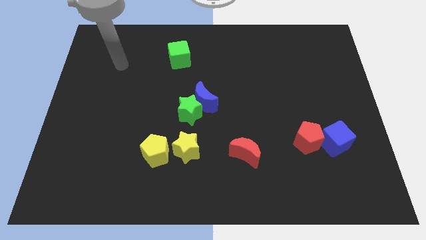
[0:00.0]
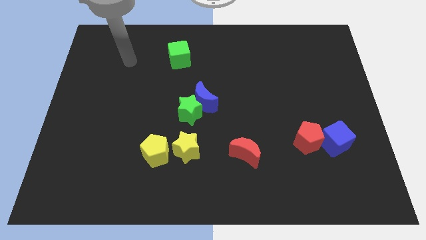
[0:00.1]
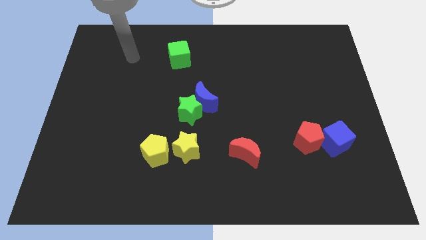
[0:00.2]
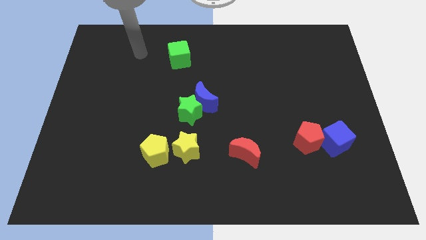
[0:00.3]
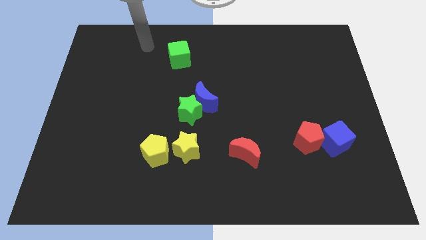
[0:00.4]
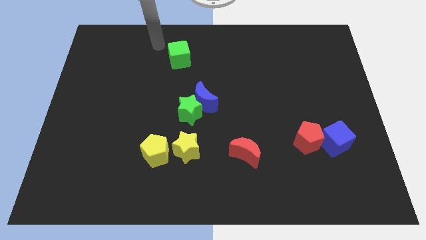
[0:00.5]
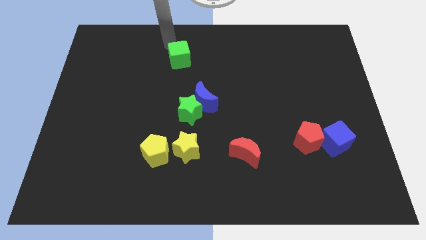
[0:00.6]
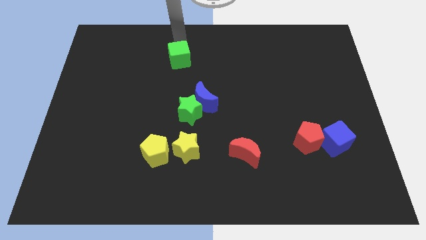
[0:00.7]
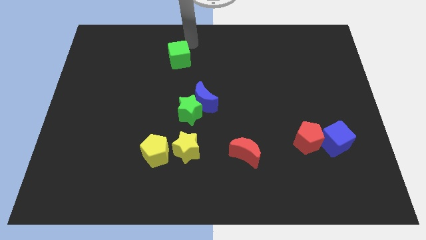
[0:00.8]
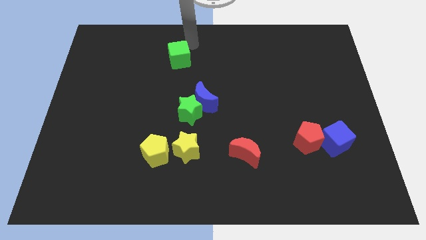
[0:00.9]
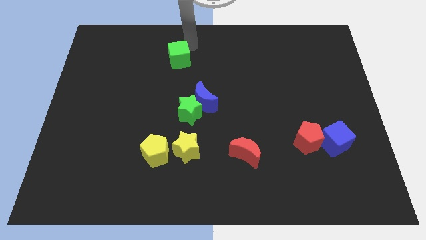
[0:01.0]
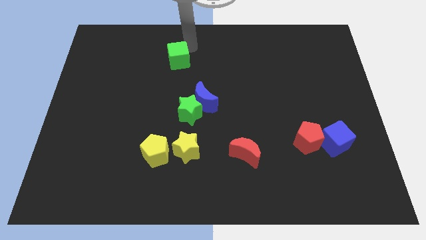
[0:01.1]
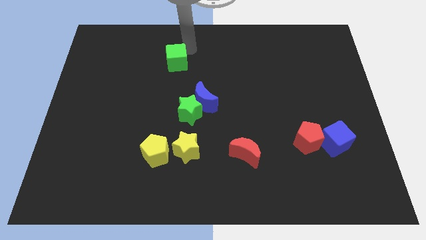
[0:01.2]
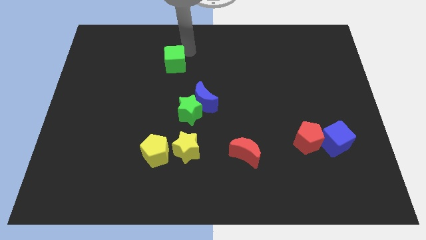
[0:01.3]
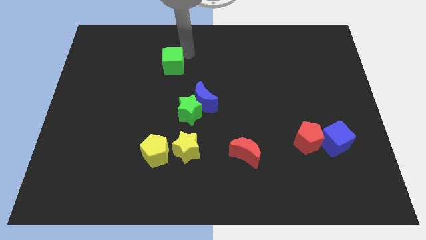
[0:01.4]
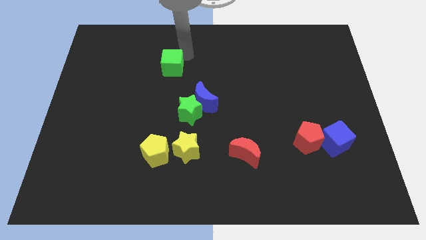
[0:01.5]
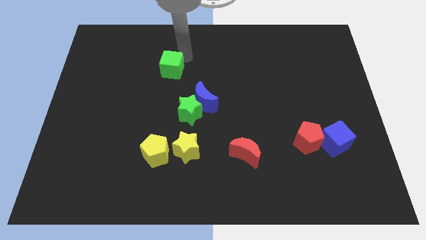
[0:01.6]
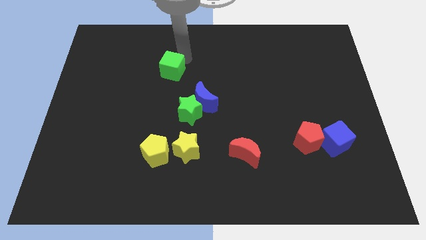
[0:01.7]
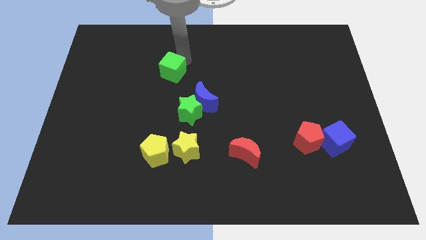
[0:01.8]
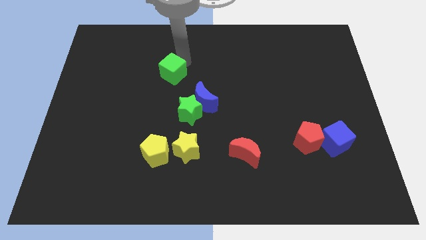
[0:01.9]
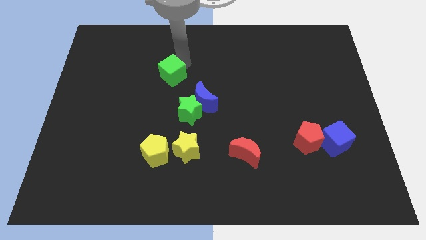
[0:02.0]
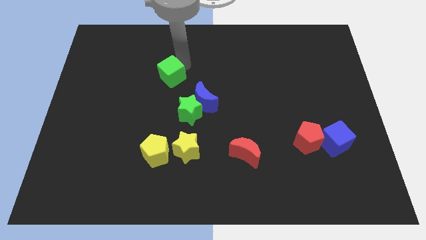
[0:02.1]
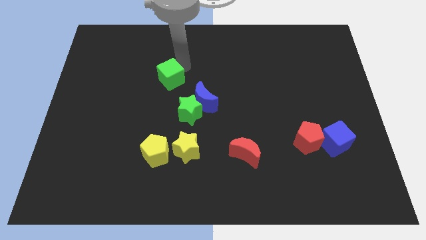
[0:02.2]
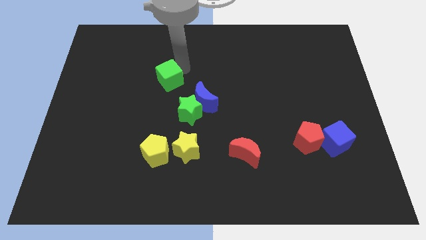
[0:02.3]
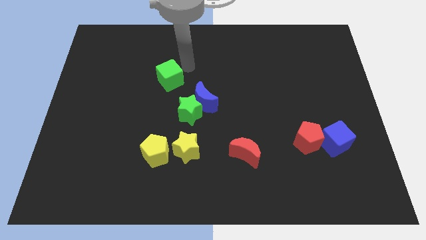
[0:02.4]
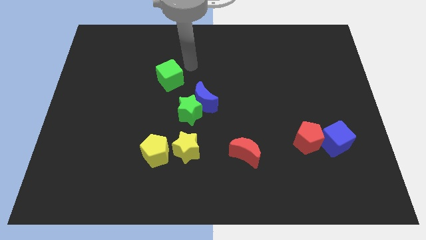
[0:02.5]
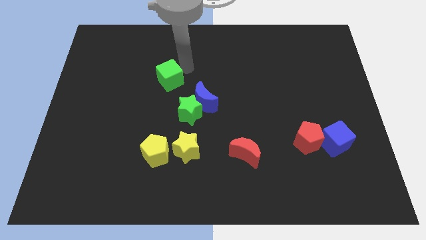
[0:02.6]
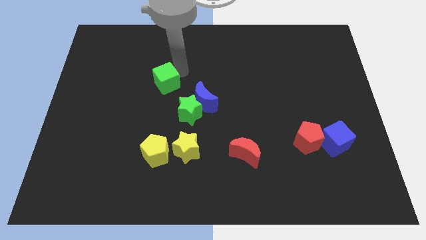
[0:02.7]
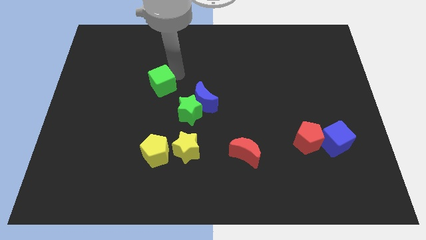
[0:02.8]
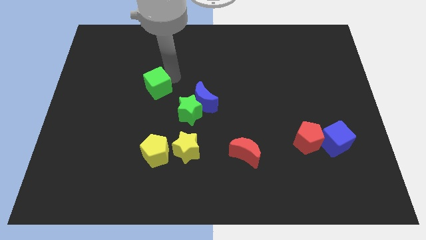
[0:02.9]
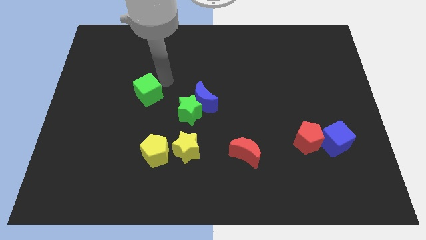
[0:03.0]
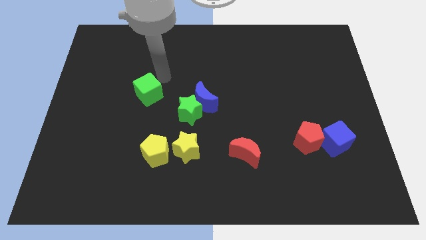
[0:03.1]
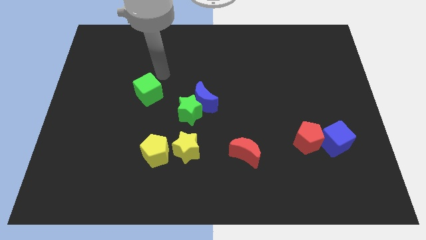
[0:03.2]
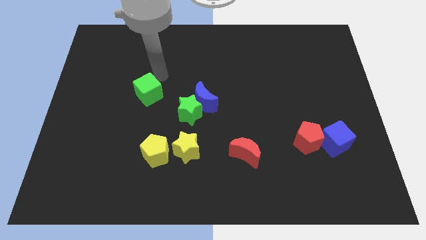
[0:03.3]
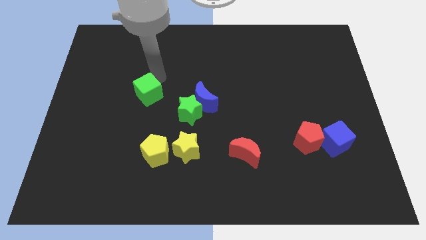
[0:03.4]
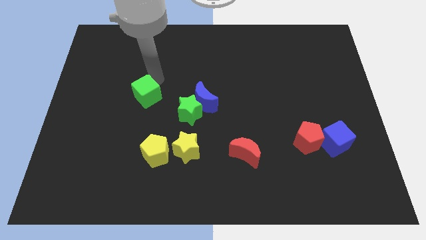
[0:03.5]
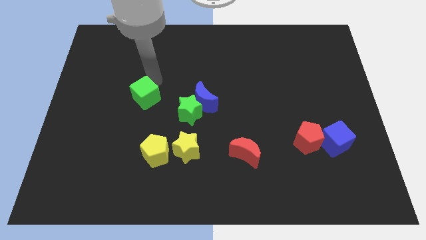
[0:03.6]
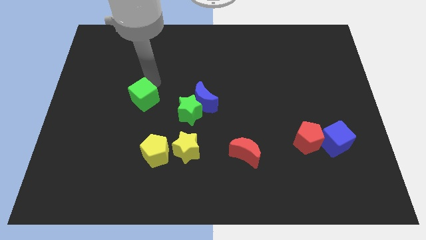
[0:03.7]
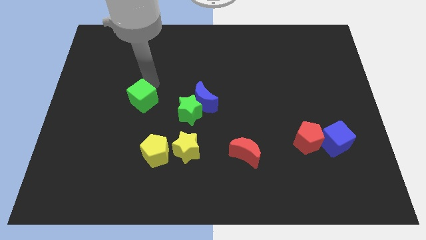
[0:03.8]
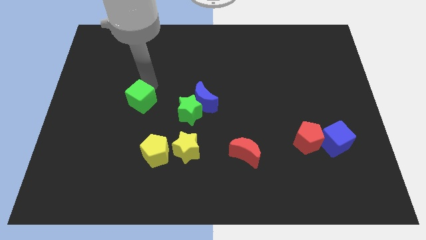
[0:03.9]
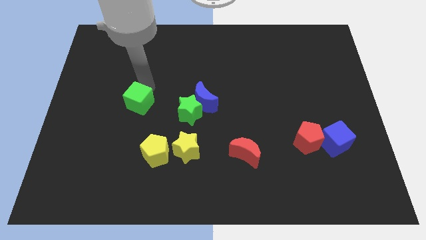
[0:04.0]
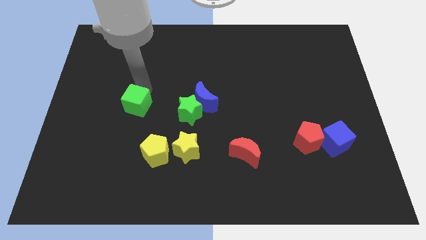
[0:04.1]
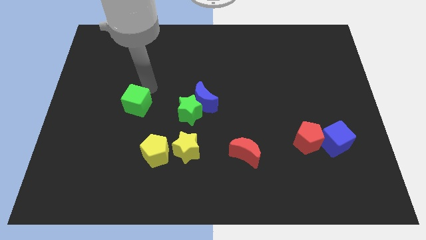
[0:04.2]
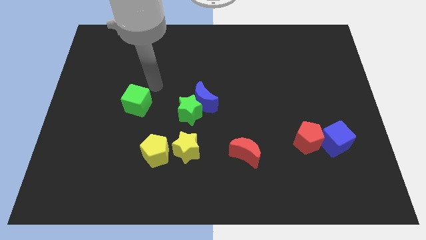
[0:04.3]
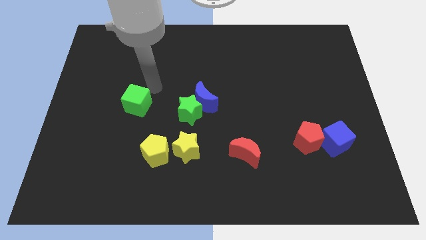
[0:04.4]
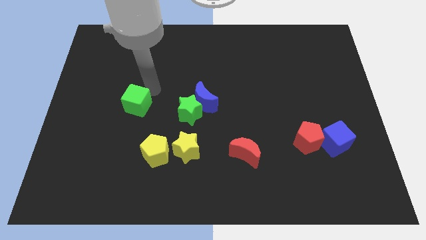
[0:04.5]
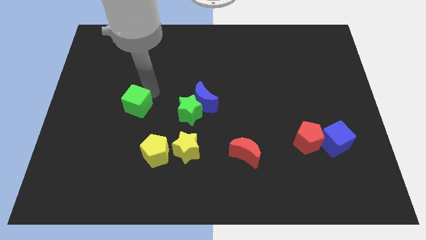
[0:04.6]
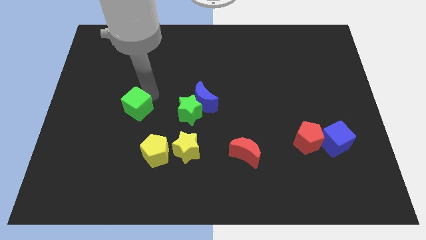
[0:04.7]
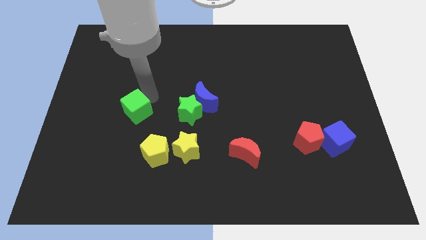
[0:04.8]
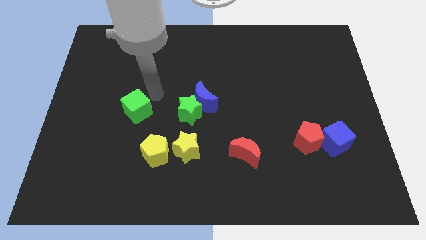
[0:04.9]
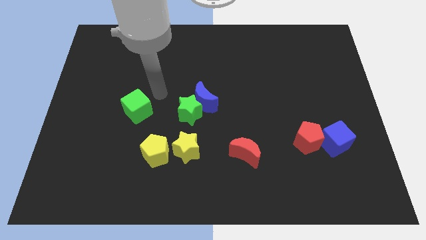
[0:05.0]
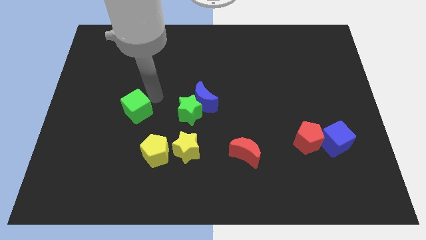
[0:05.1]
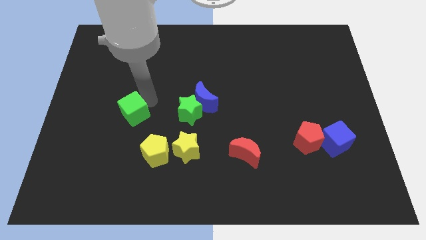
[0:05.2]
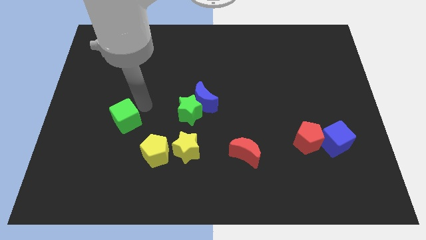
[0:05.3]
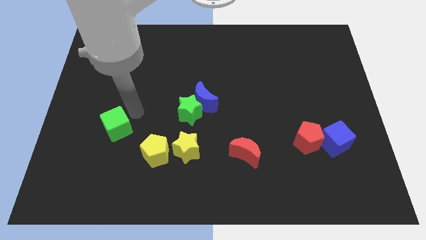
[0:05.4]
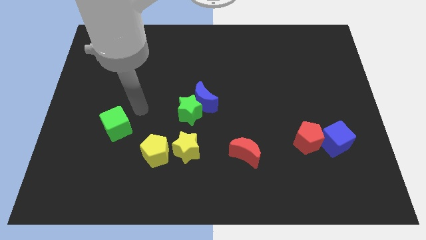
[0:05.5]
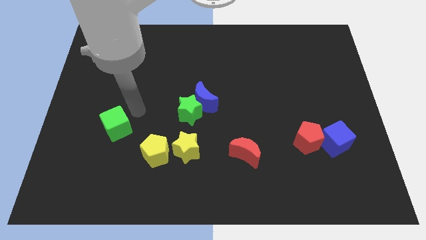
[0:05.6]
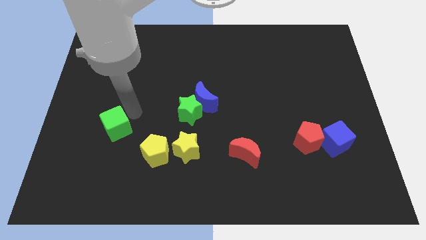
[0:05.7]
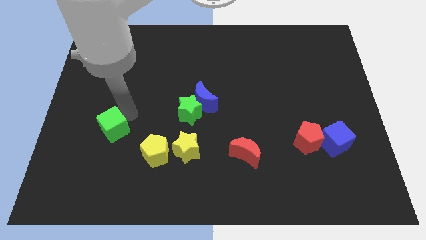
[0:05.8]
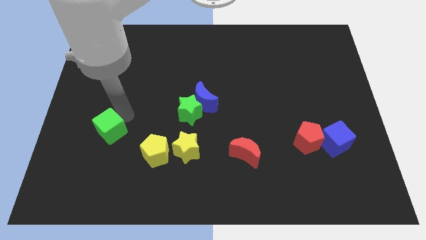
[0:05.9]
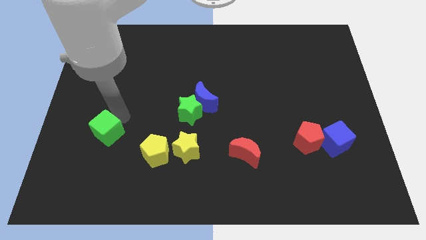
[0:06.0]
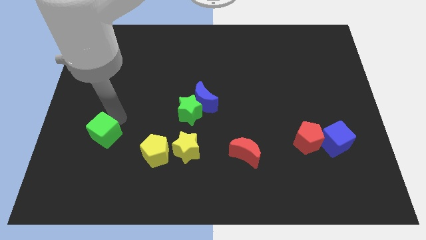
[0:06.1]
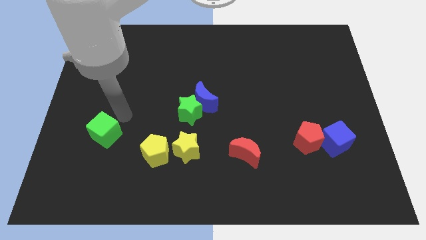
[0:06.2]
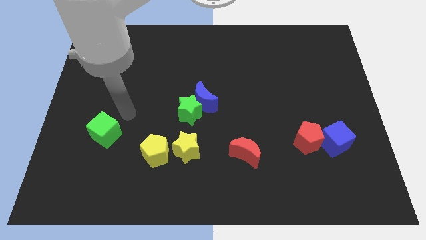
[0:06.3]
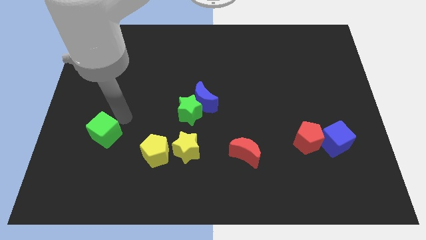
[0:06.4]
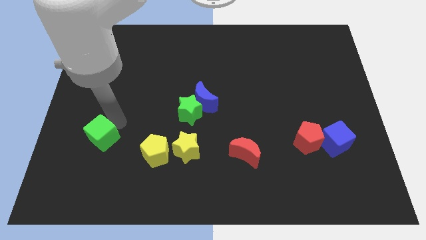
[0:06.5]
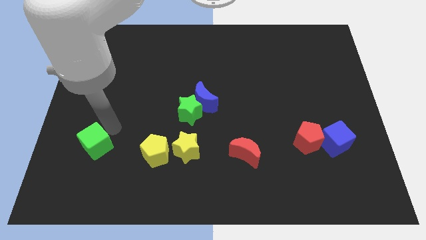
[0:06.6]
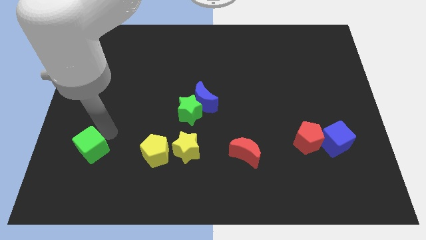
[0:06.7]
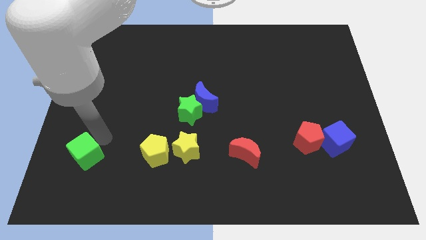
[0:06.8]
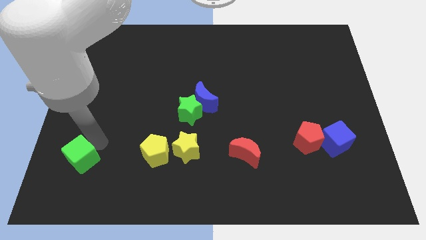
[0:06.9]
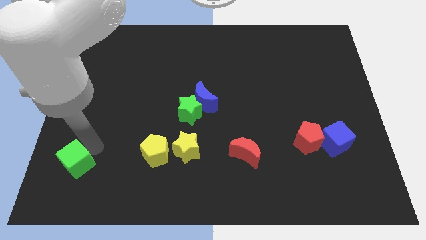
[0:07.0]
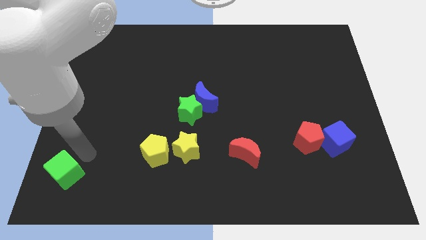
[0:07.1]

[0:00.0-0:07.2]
push the green cube to the bottom left corner

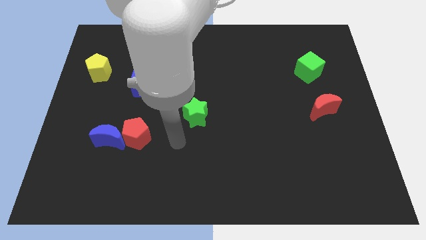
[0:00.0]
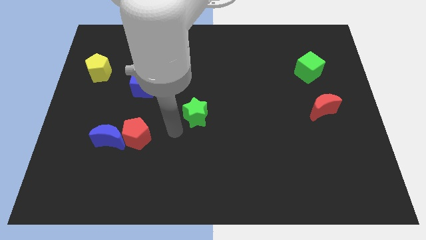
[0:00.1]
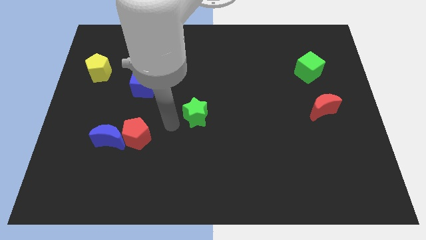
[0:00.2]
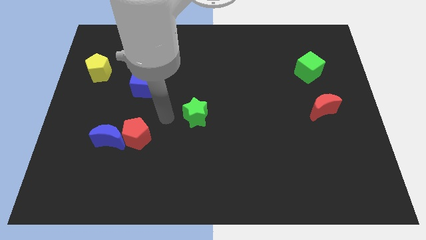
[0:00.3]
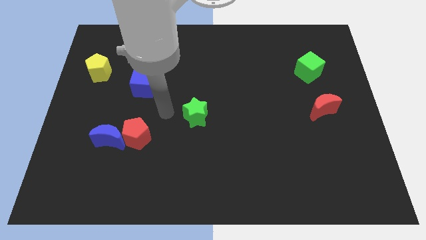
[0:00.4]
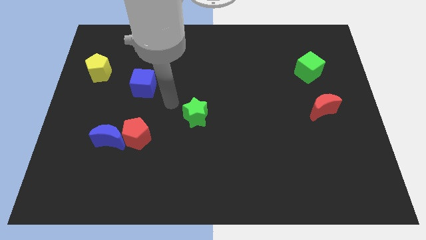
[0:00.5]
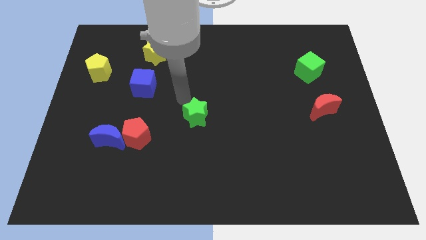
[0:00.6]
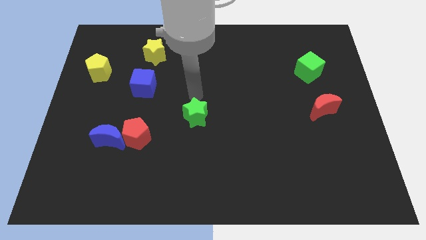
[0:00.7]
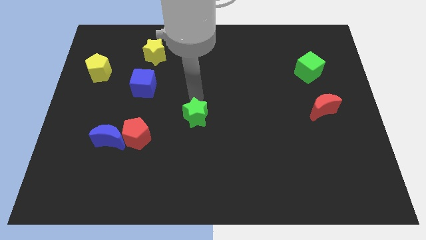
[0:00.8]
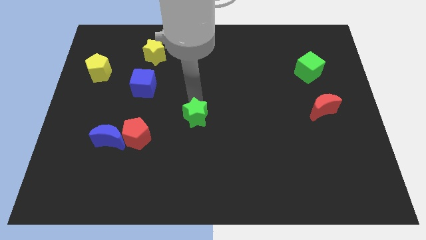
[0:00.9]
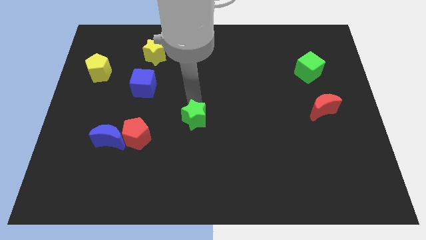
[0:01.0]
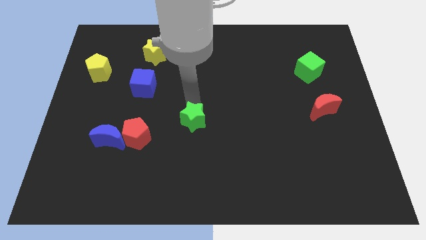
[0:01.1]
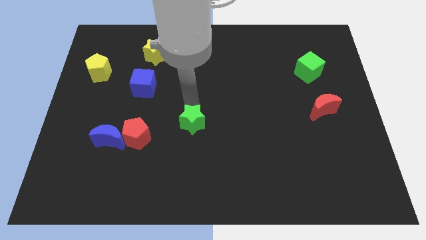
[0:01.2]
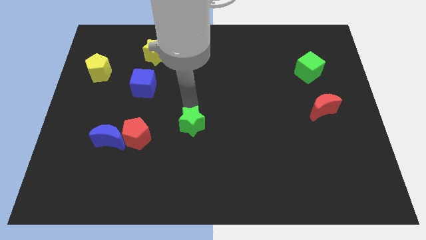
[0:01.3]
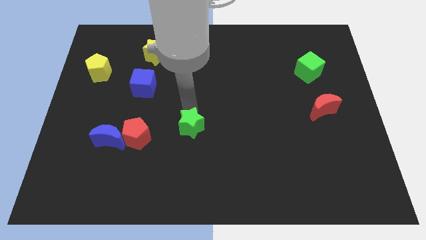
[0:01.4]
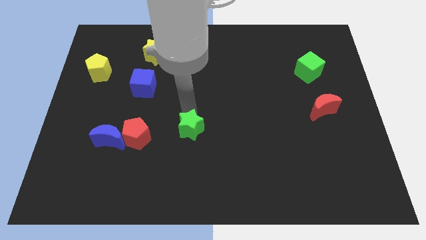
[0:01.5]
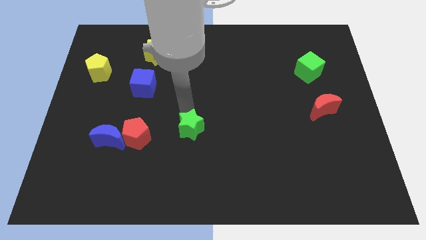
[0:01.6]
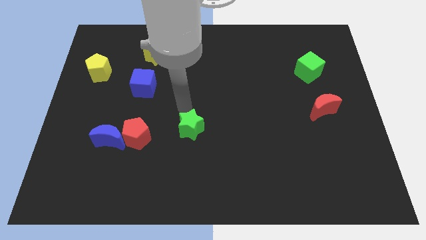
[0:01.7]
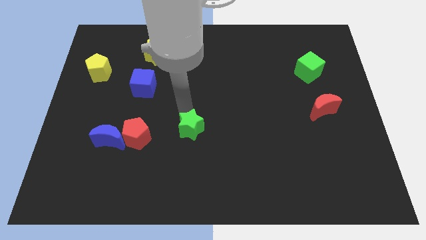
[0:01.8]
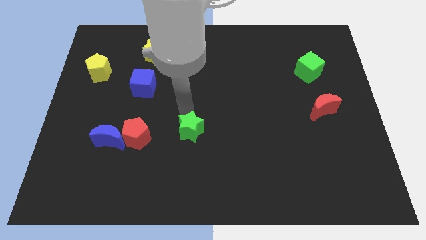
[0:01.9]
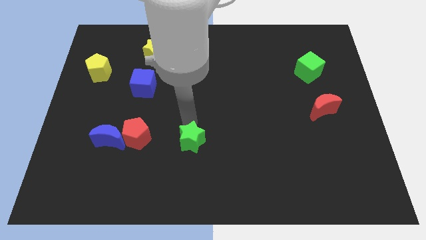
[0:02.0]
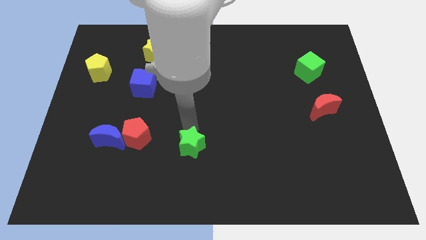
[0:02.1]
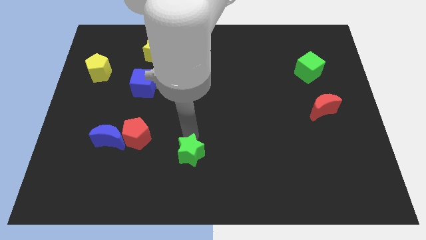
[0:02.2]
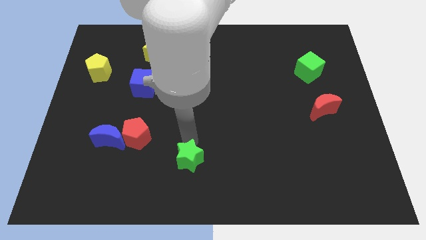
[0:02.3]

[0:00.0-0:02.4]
move the green star to the bottom
